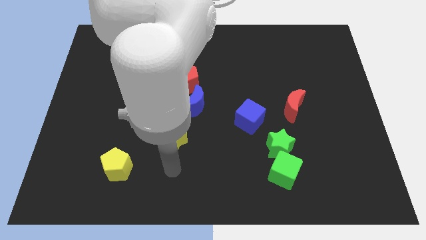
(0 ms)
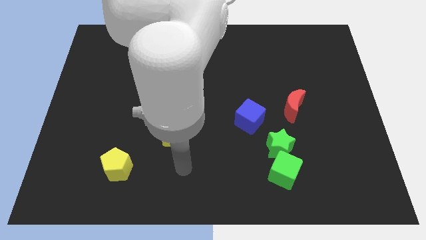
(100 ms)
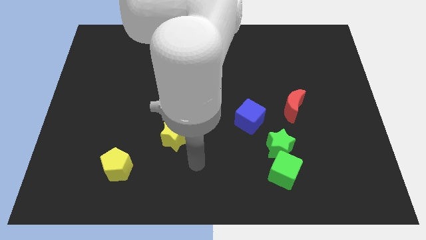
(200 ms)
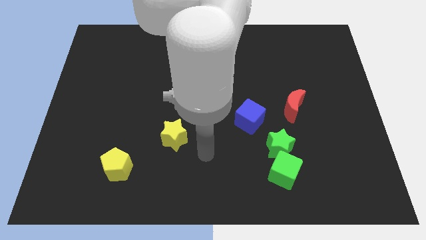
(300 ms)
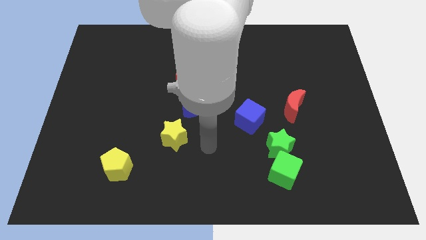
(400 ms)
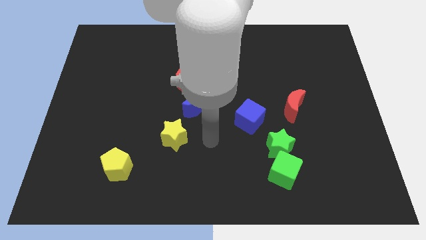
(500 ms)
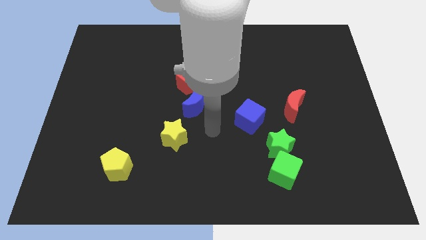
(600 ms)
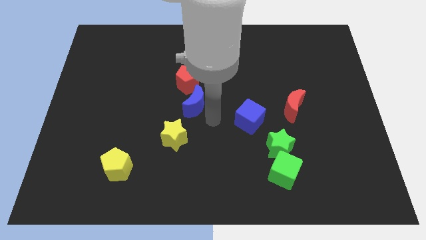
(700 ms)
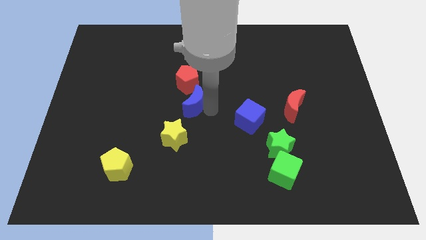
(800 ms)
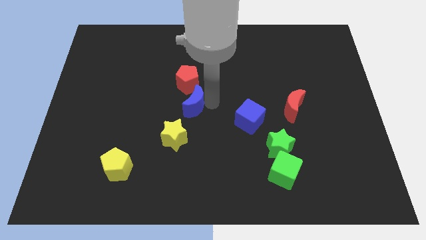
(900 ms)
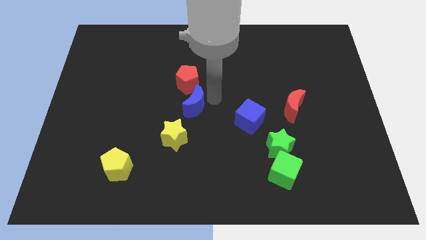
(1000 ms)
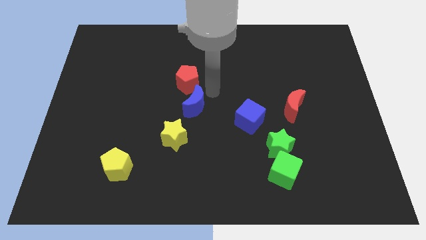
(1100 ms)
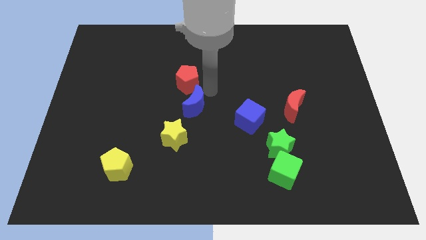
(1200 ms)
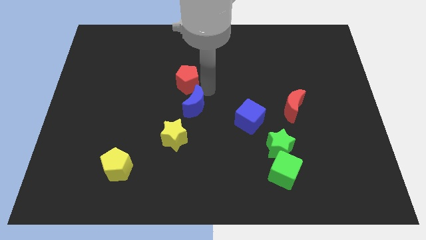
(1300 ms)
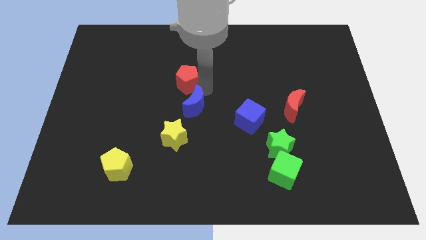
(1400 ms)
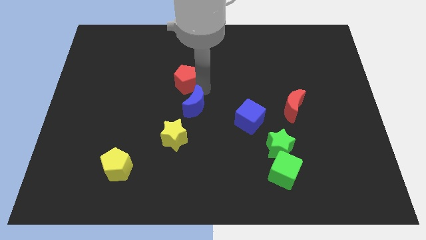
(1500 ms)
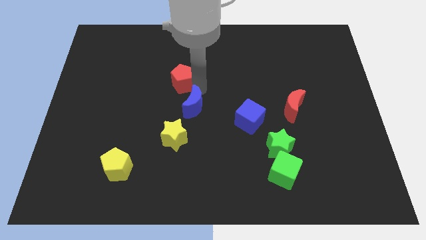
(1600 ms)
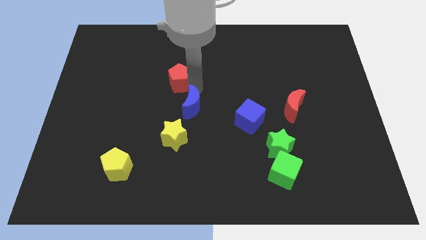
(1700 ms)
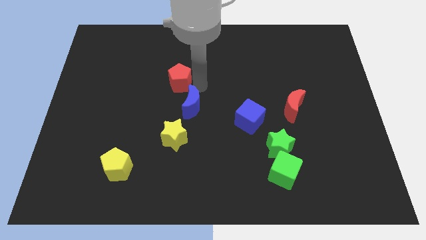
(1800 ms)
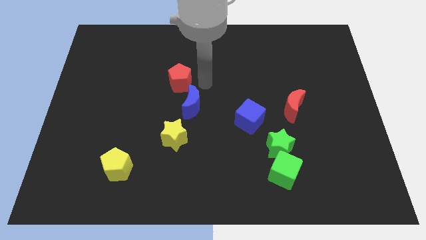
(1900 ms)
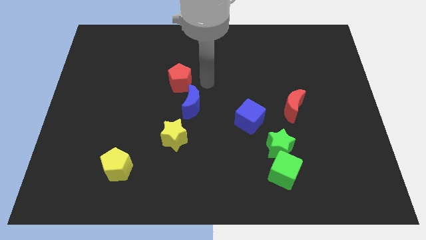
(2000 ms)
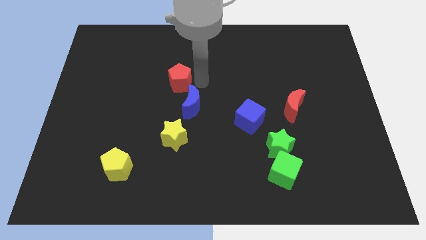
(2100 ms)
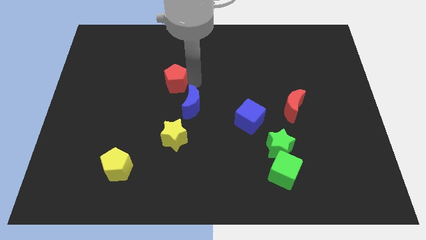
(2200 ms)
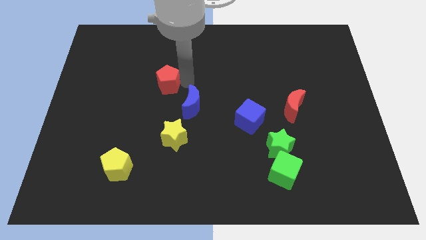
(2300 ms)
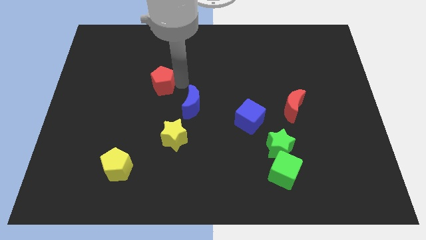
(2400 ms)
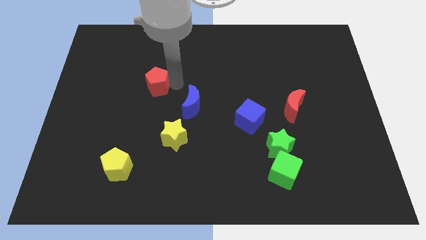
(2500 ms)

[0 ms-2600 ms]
push the red pentagon slightly left

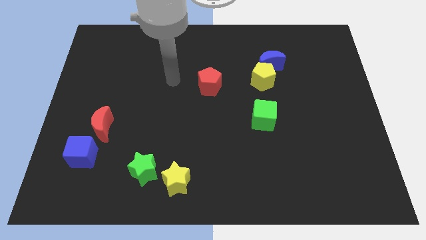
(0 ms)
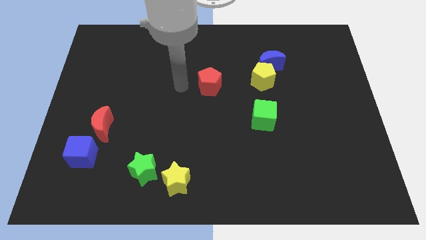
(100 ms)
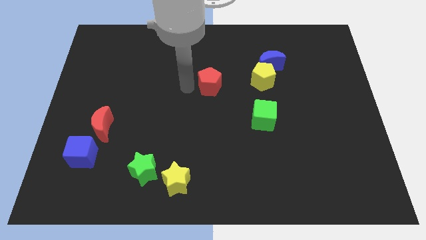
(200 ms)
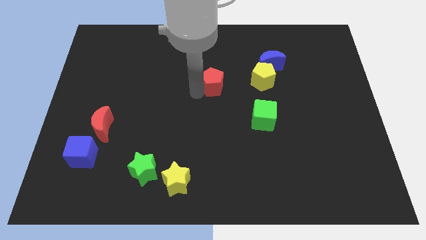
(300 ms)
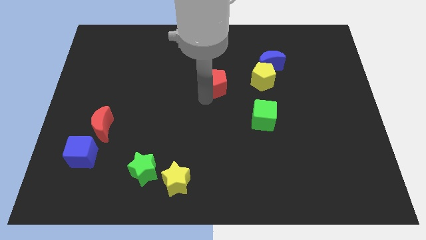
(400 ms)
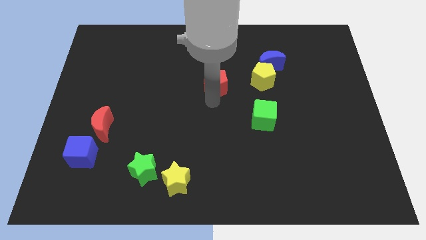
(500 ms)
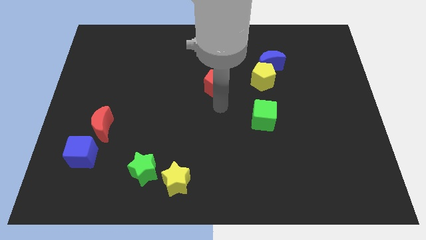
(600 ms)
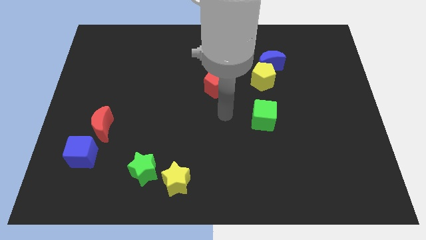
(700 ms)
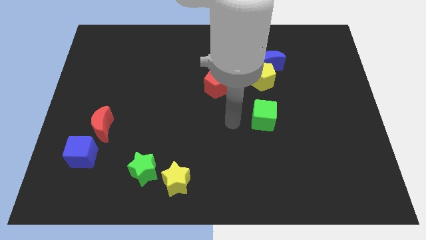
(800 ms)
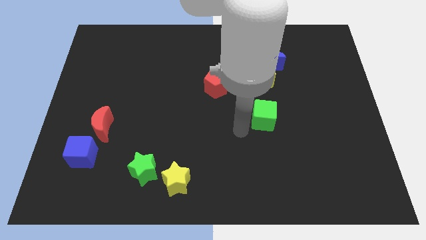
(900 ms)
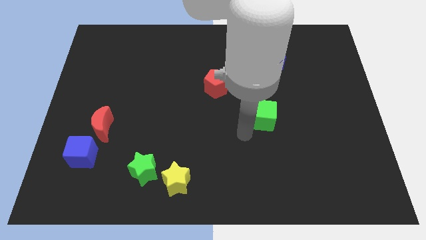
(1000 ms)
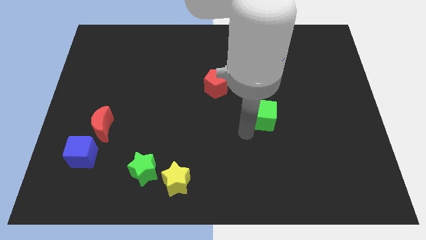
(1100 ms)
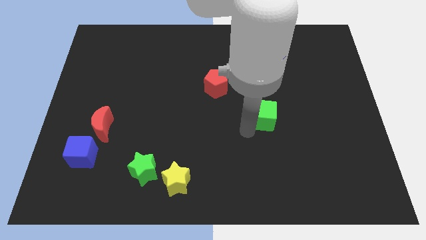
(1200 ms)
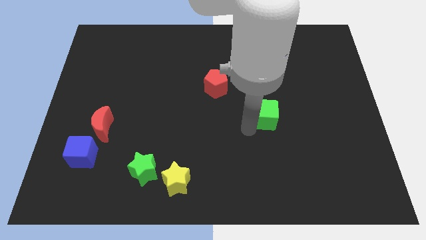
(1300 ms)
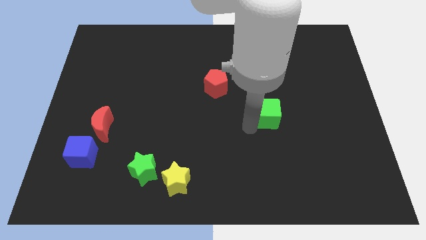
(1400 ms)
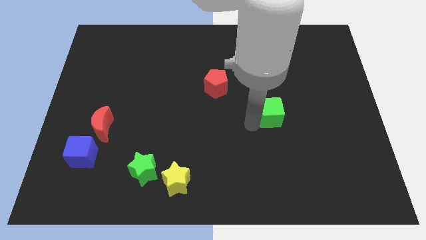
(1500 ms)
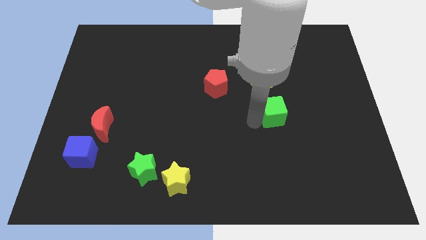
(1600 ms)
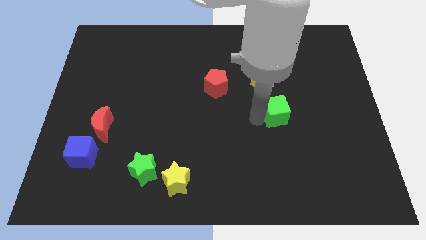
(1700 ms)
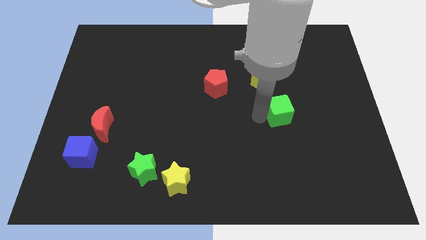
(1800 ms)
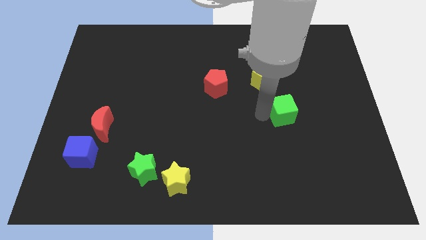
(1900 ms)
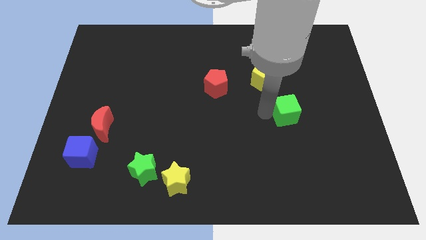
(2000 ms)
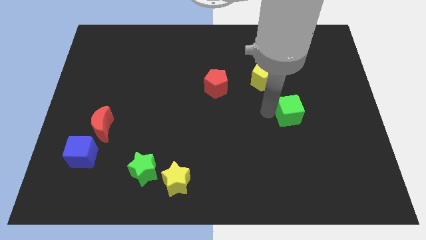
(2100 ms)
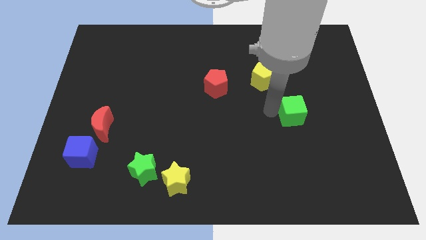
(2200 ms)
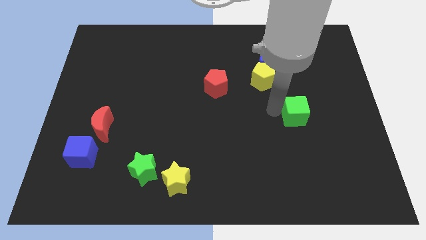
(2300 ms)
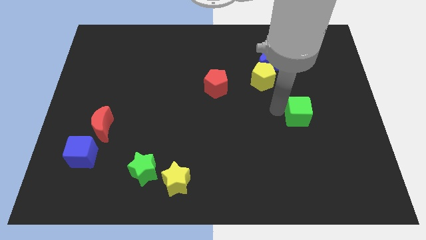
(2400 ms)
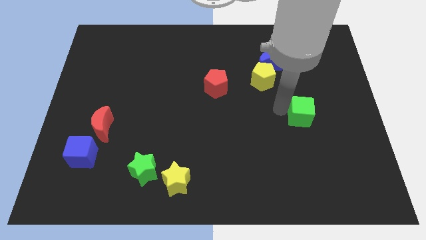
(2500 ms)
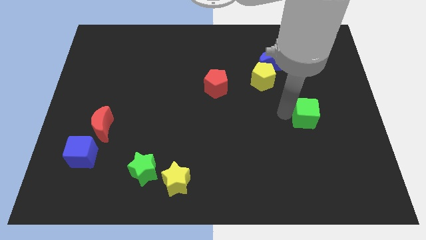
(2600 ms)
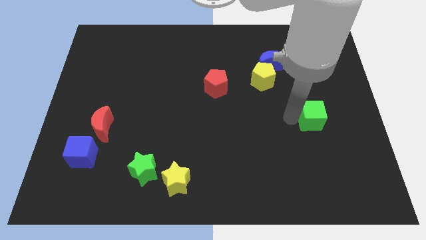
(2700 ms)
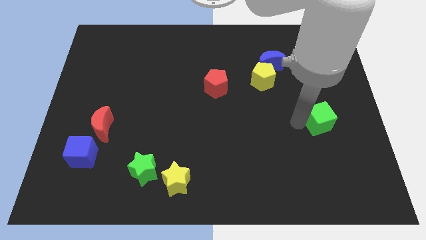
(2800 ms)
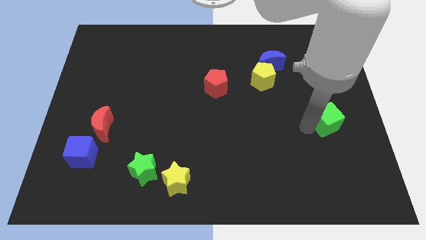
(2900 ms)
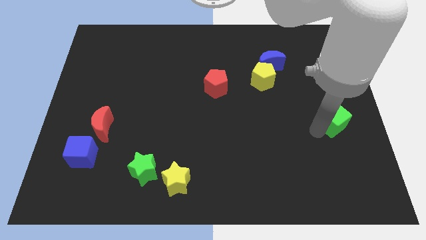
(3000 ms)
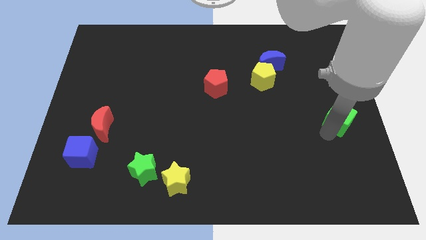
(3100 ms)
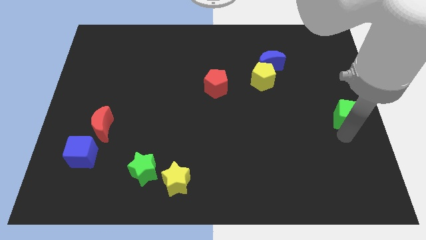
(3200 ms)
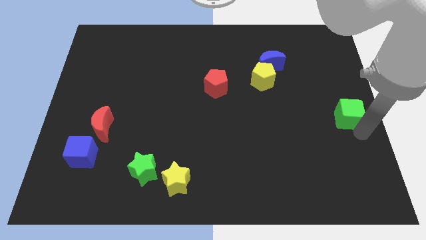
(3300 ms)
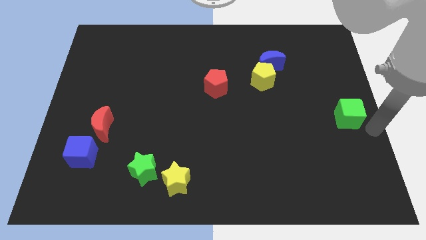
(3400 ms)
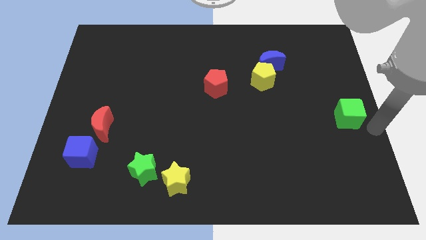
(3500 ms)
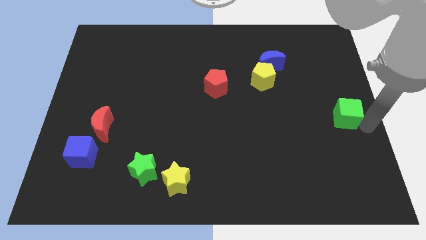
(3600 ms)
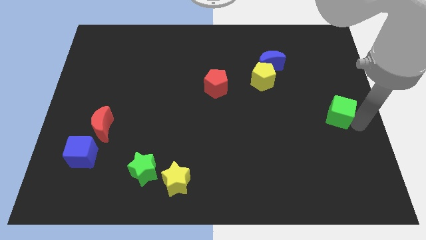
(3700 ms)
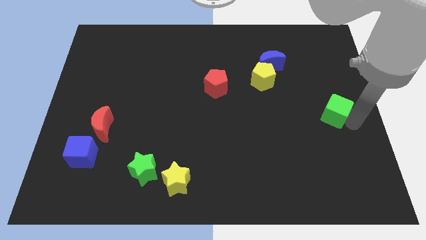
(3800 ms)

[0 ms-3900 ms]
slightly slide the green cube up and to the right

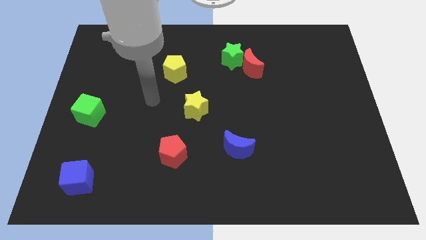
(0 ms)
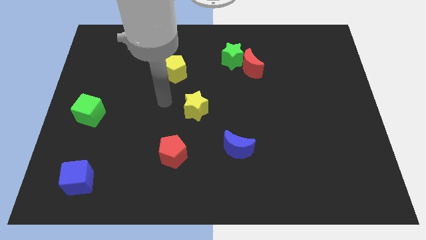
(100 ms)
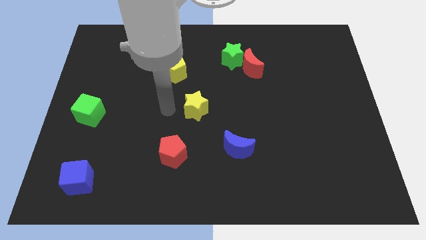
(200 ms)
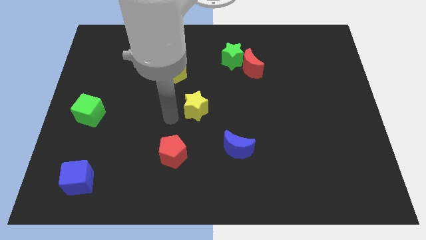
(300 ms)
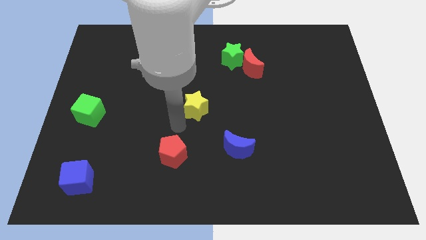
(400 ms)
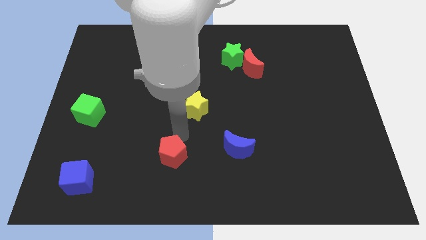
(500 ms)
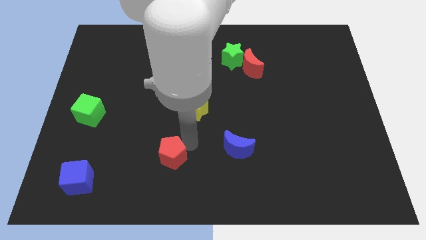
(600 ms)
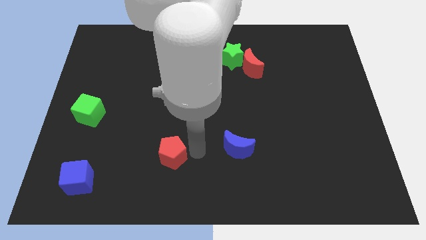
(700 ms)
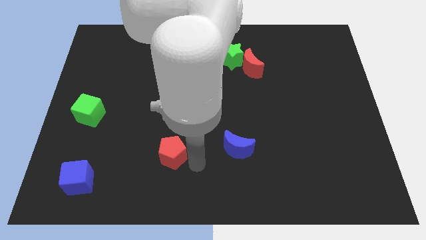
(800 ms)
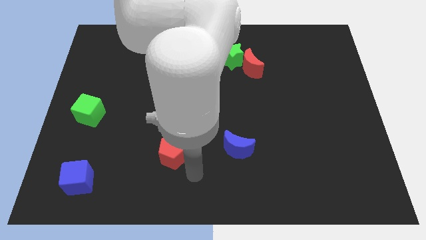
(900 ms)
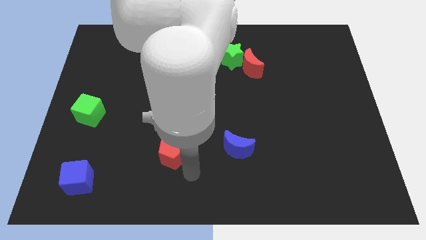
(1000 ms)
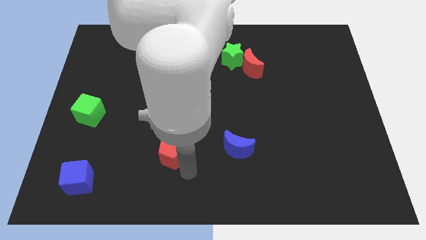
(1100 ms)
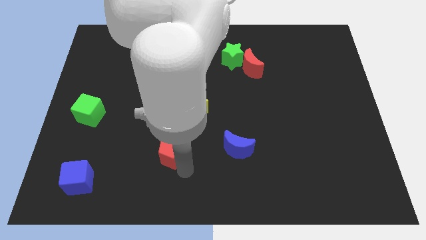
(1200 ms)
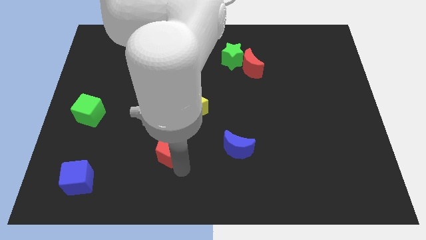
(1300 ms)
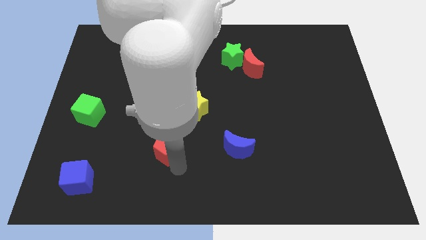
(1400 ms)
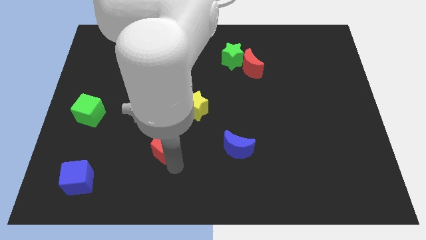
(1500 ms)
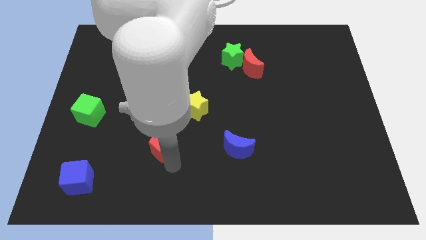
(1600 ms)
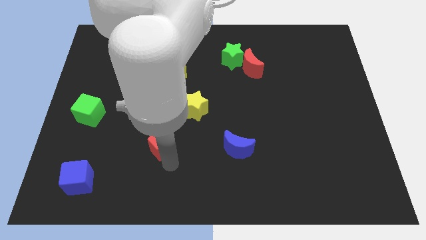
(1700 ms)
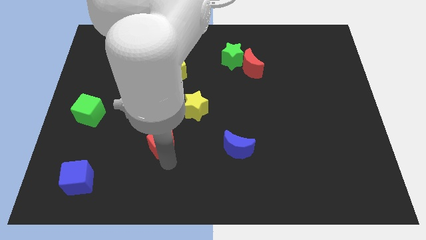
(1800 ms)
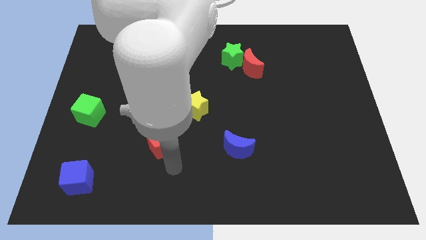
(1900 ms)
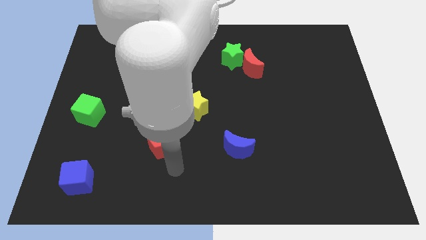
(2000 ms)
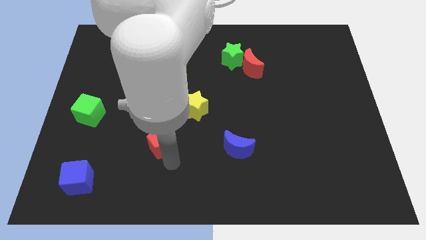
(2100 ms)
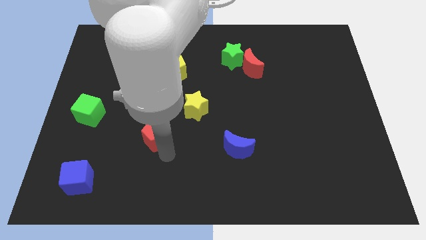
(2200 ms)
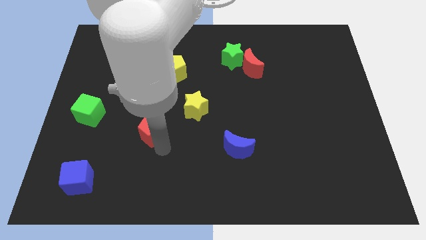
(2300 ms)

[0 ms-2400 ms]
slightly push the red pentagon upwards and to the left diagonally
